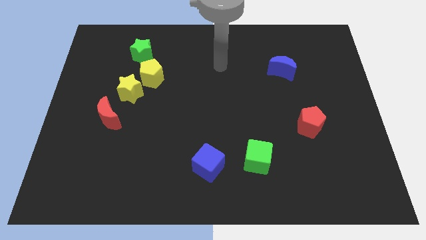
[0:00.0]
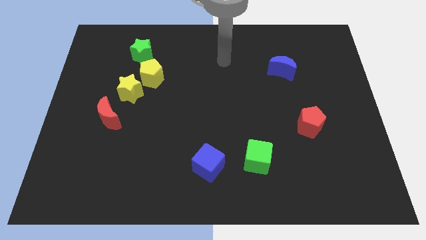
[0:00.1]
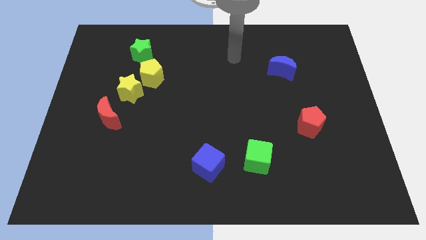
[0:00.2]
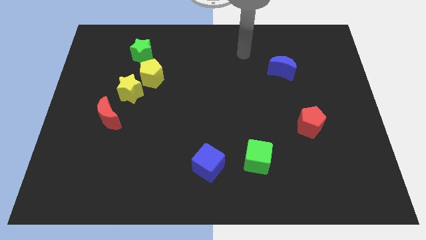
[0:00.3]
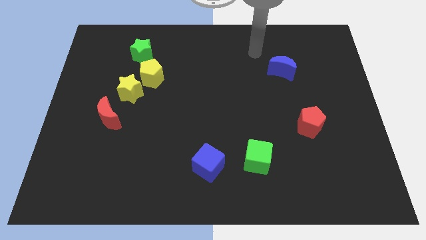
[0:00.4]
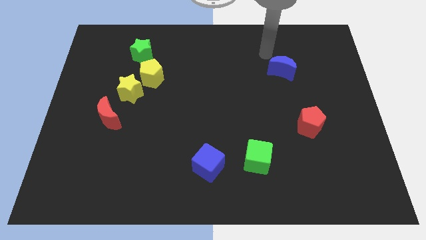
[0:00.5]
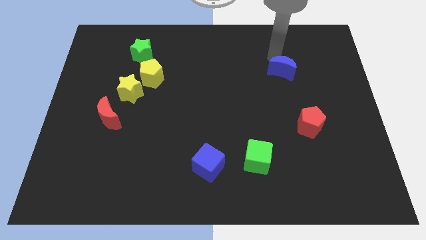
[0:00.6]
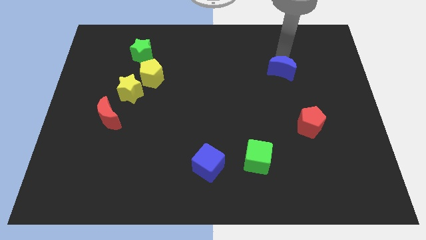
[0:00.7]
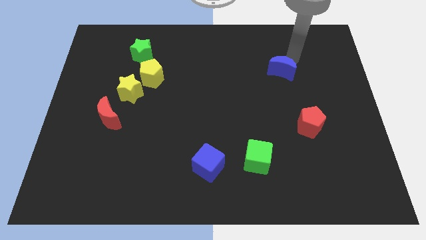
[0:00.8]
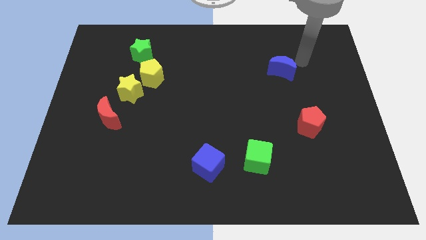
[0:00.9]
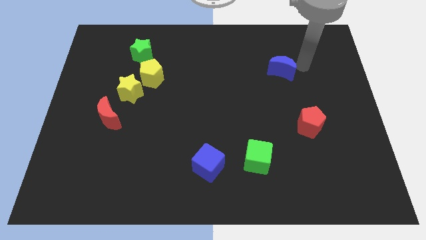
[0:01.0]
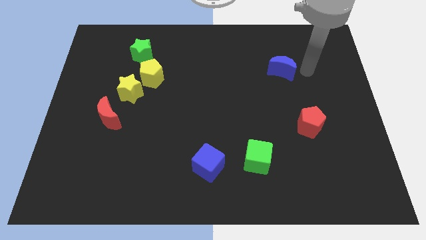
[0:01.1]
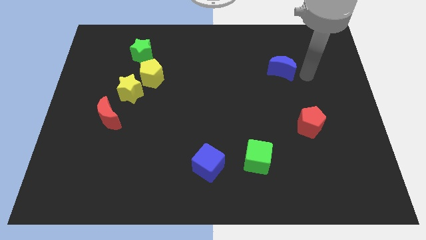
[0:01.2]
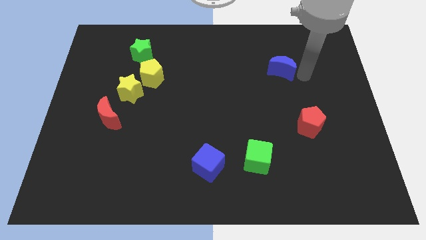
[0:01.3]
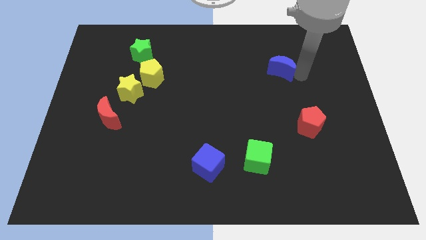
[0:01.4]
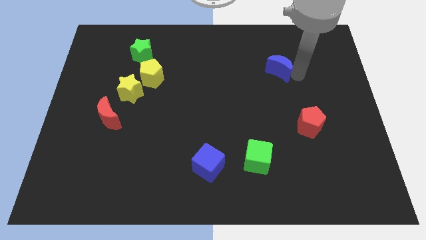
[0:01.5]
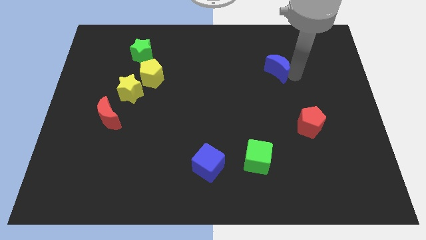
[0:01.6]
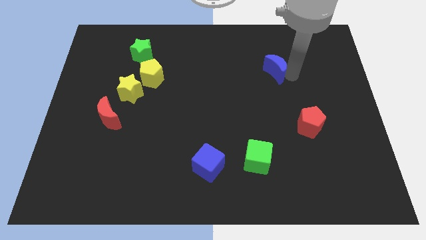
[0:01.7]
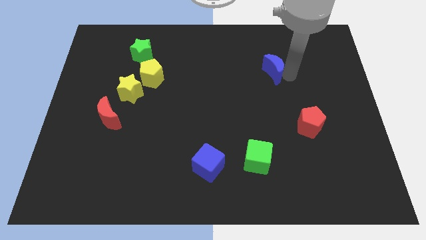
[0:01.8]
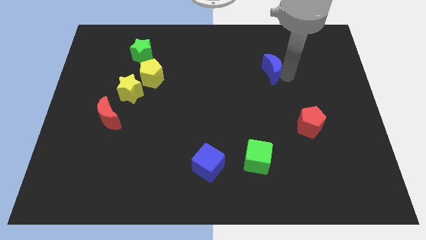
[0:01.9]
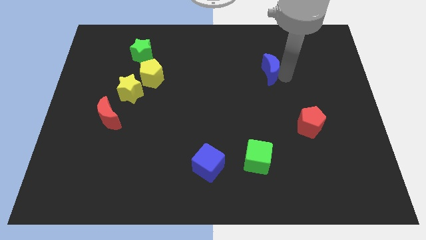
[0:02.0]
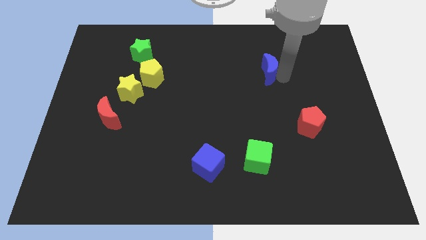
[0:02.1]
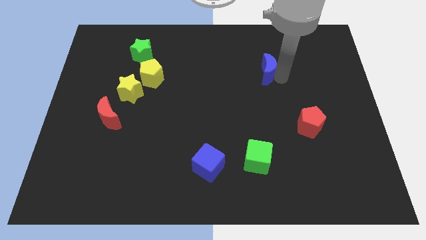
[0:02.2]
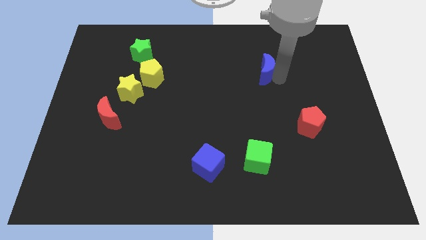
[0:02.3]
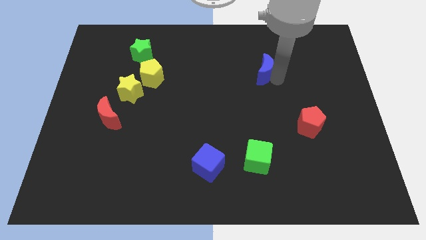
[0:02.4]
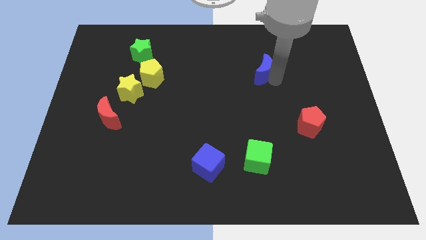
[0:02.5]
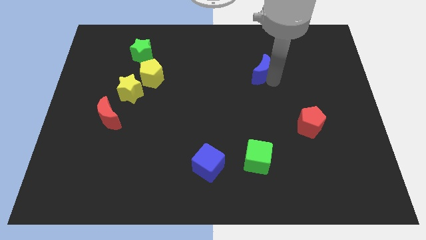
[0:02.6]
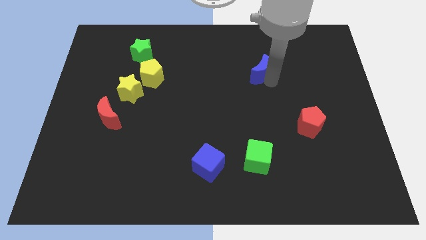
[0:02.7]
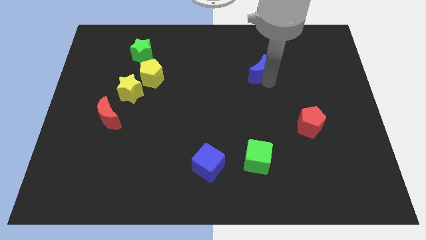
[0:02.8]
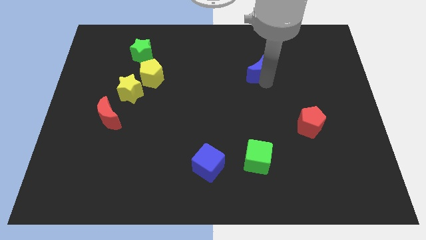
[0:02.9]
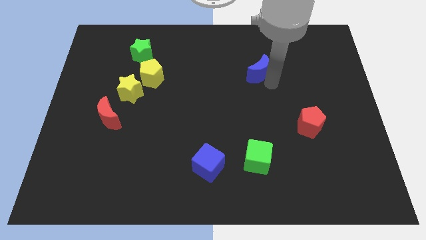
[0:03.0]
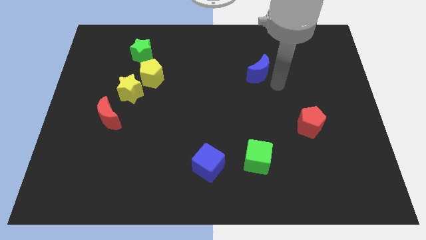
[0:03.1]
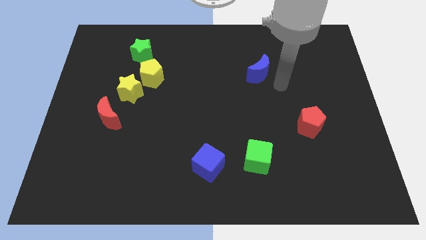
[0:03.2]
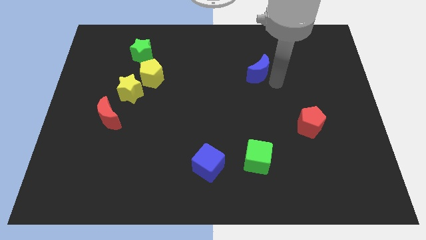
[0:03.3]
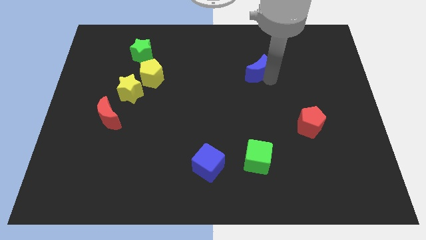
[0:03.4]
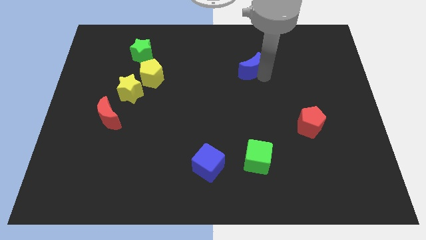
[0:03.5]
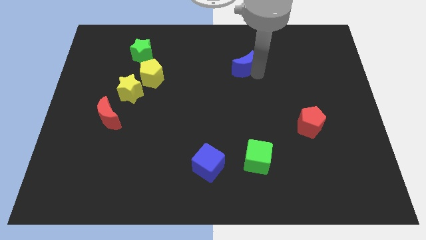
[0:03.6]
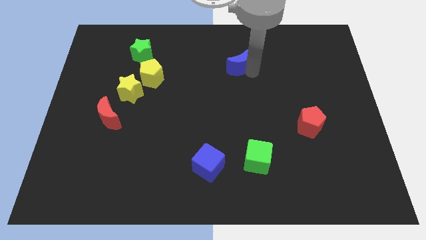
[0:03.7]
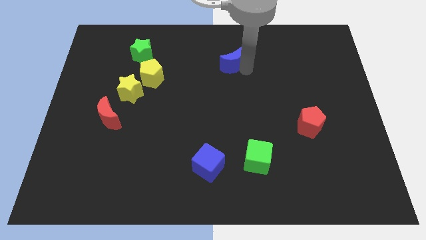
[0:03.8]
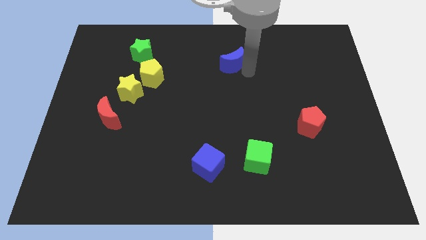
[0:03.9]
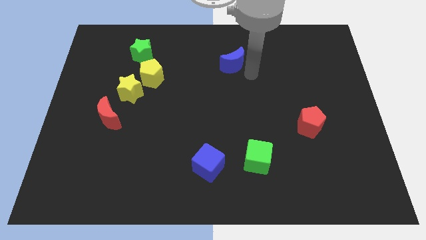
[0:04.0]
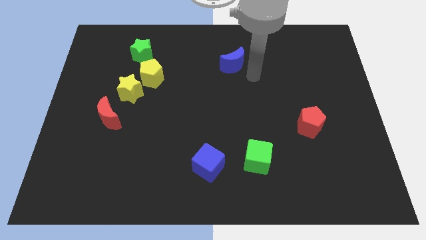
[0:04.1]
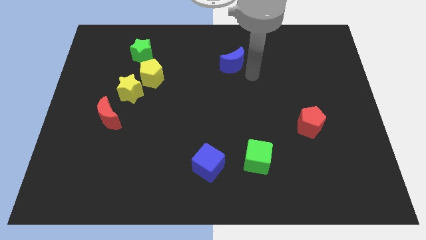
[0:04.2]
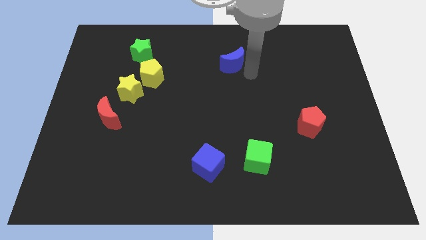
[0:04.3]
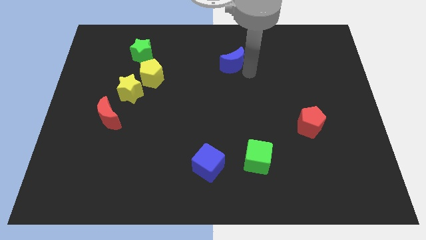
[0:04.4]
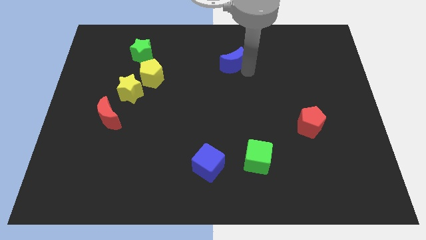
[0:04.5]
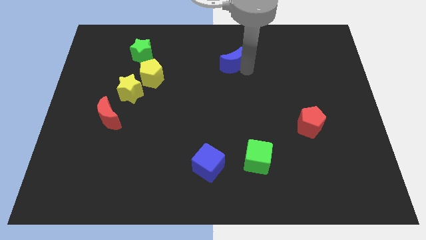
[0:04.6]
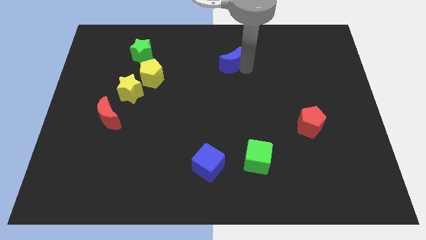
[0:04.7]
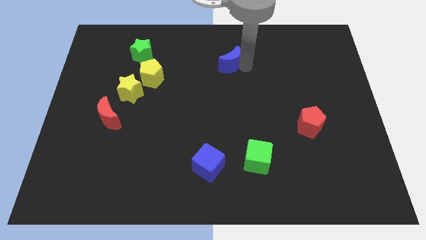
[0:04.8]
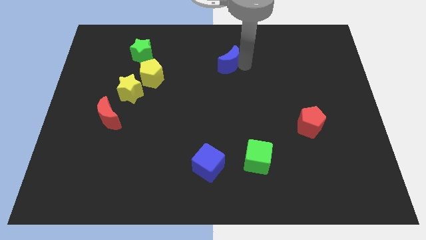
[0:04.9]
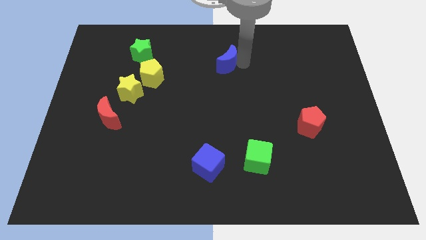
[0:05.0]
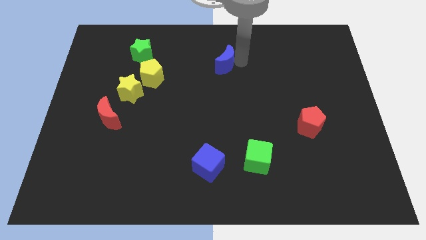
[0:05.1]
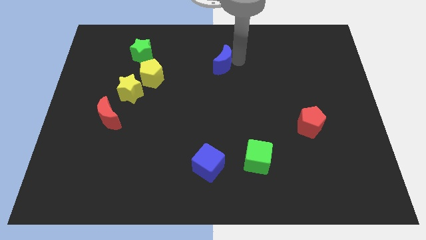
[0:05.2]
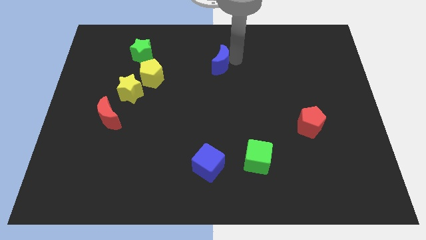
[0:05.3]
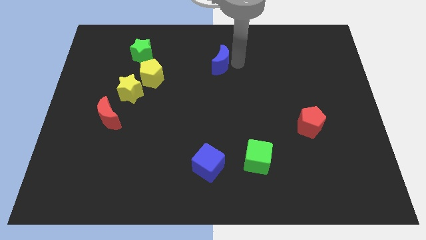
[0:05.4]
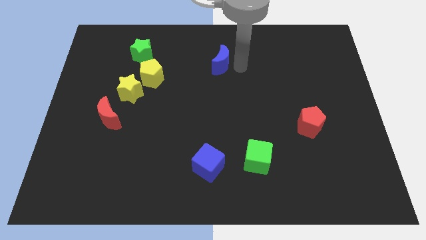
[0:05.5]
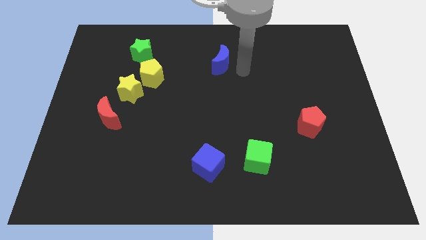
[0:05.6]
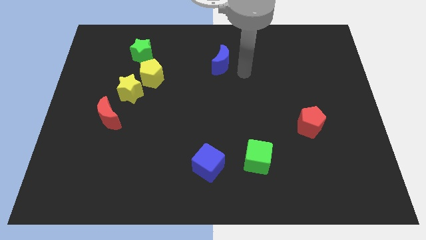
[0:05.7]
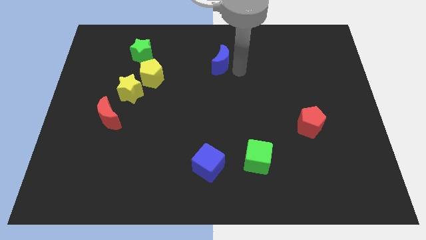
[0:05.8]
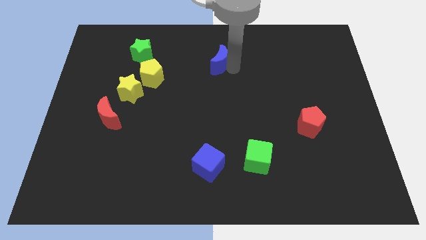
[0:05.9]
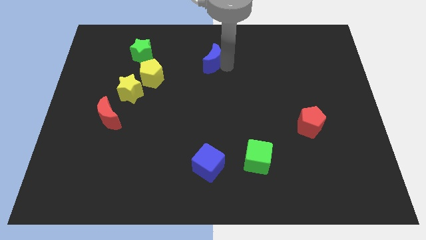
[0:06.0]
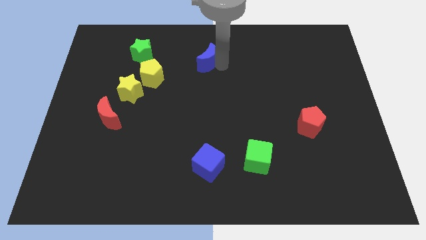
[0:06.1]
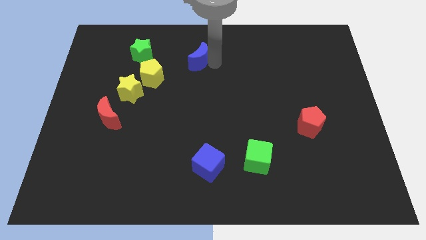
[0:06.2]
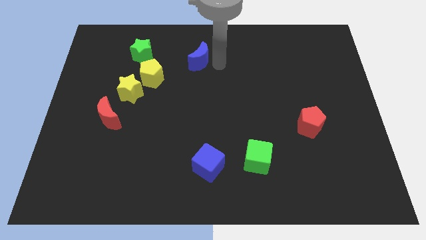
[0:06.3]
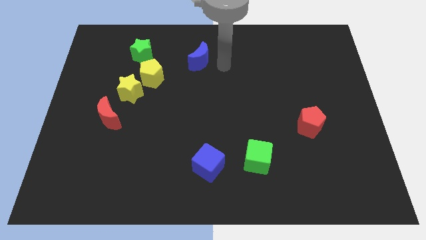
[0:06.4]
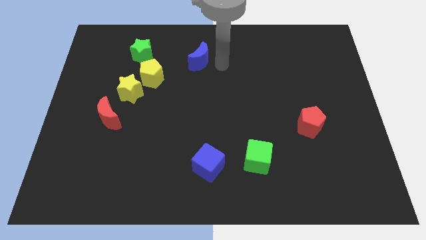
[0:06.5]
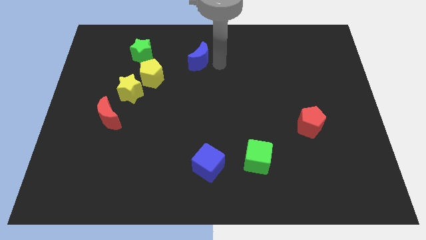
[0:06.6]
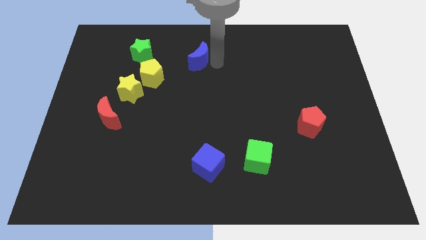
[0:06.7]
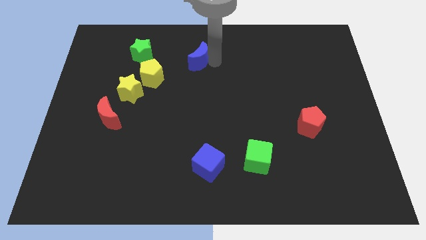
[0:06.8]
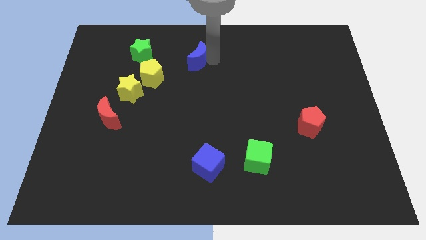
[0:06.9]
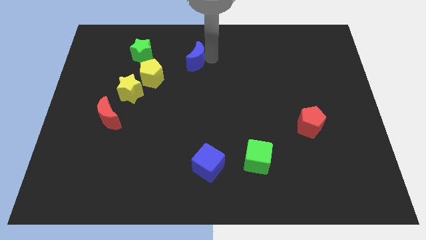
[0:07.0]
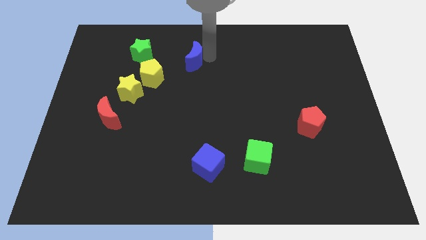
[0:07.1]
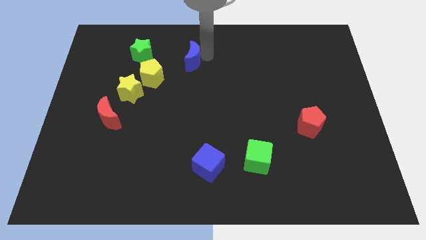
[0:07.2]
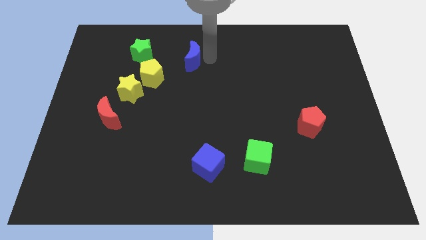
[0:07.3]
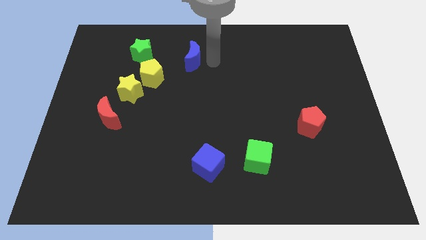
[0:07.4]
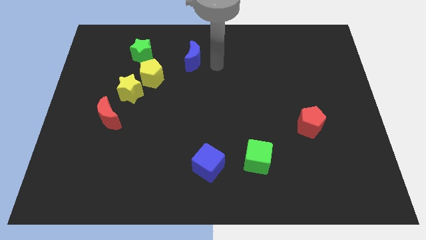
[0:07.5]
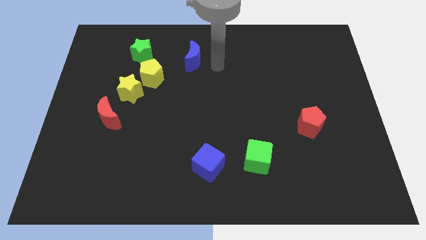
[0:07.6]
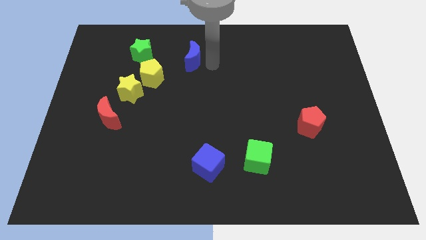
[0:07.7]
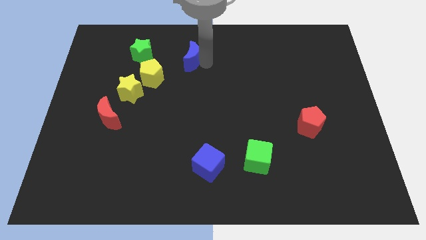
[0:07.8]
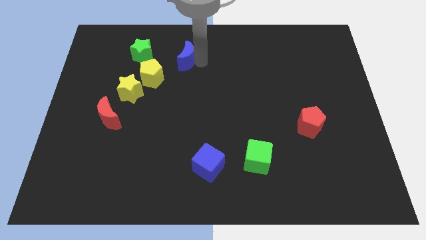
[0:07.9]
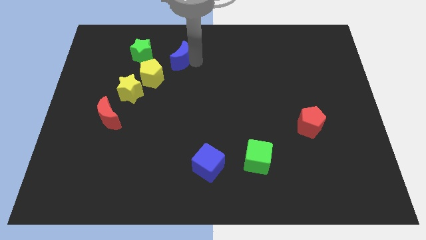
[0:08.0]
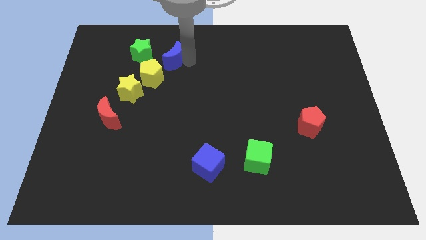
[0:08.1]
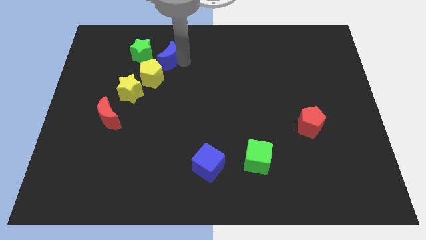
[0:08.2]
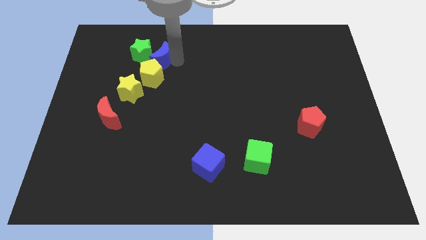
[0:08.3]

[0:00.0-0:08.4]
push the blue moon to the green star
